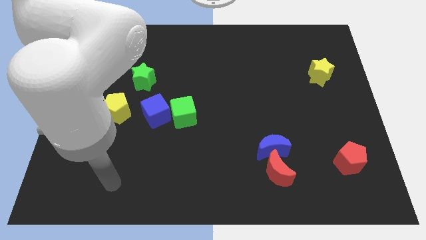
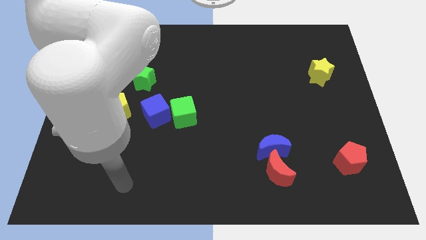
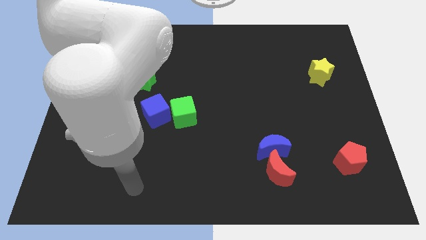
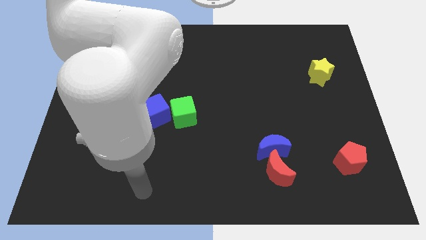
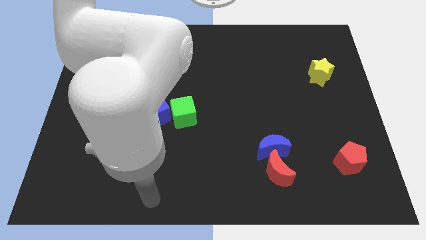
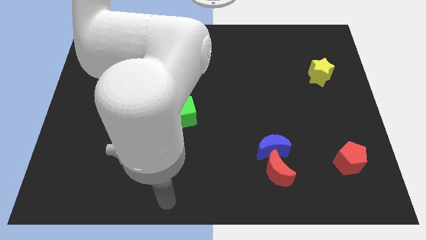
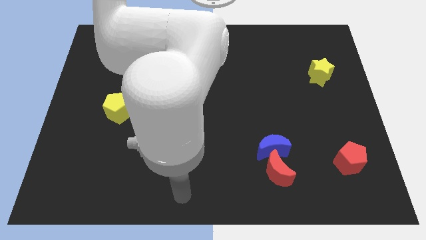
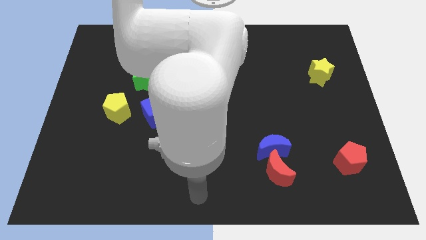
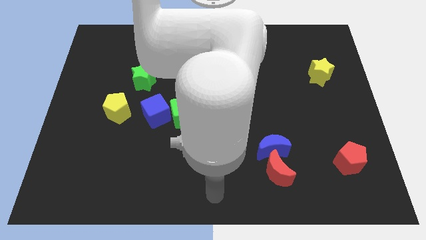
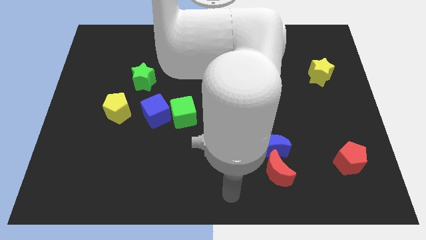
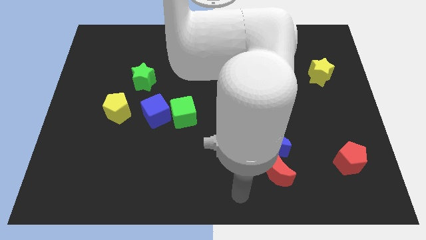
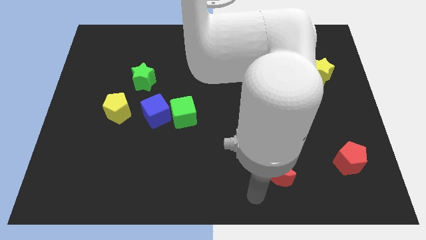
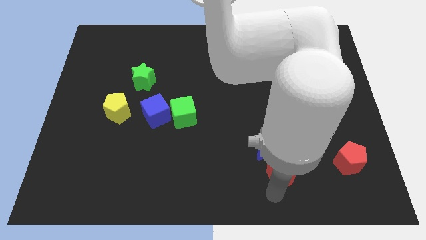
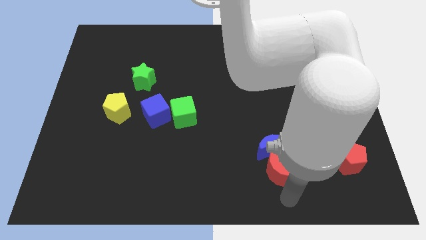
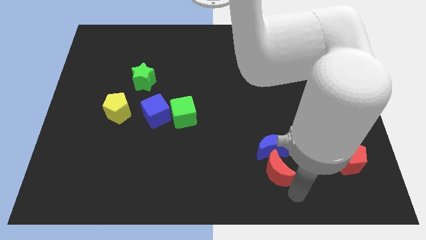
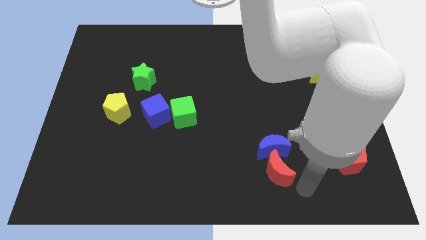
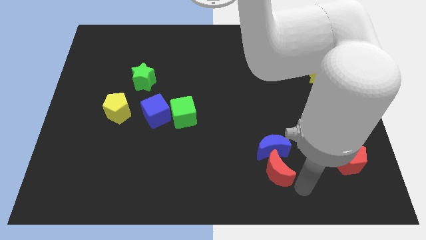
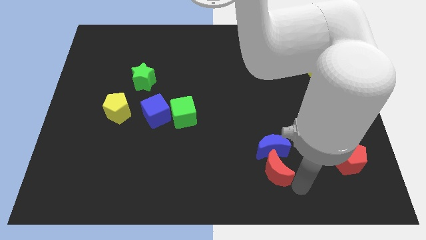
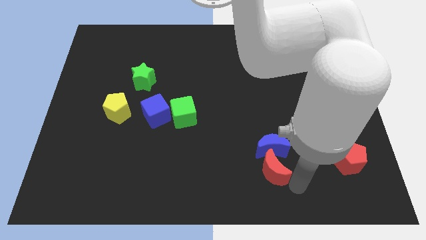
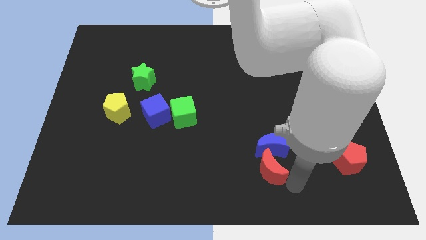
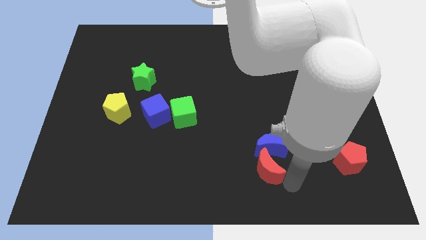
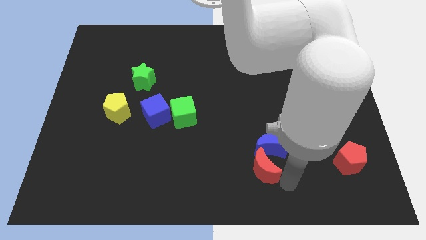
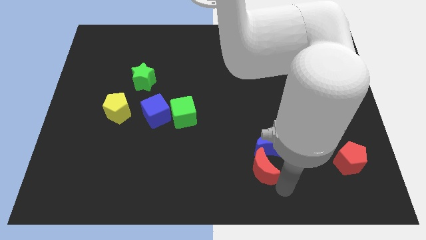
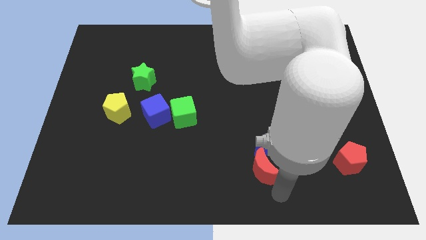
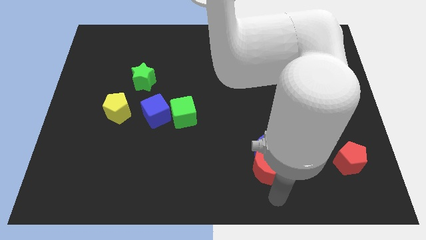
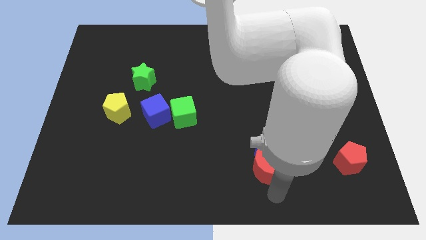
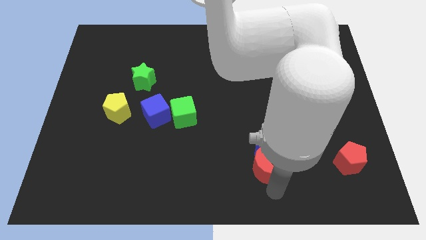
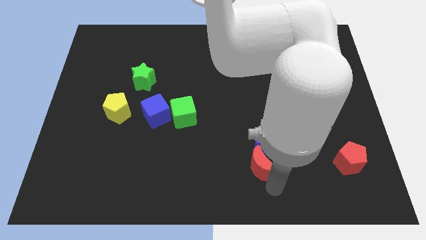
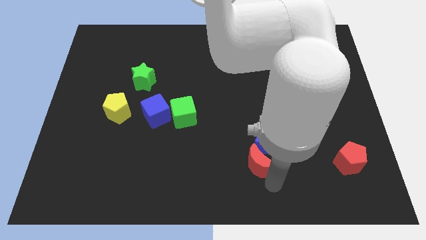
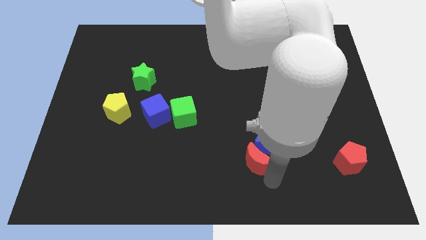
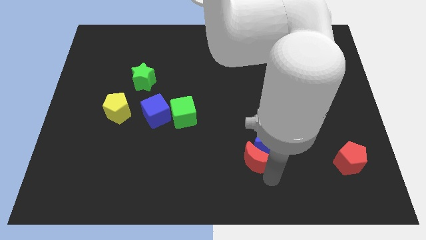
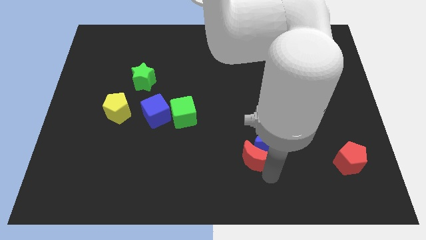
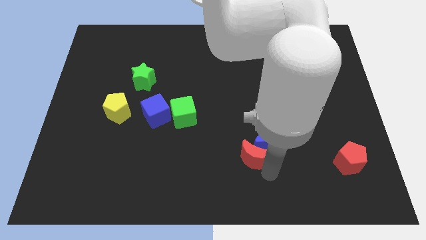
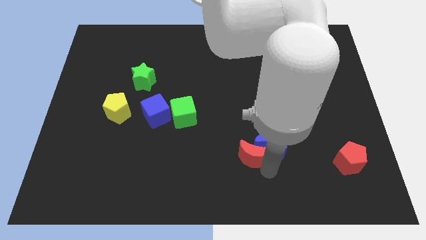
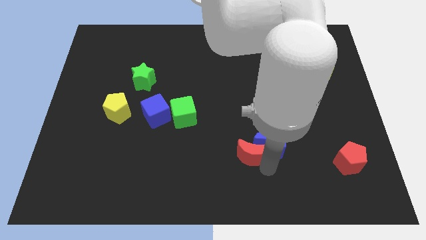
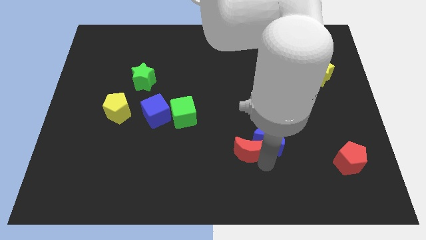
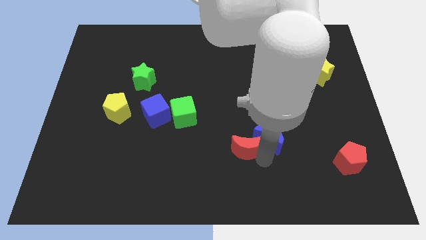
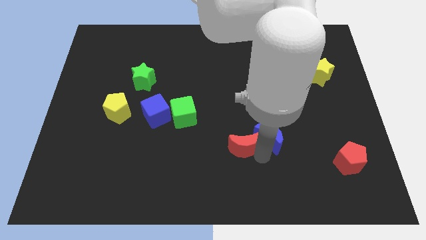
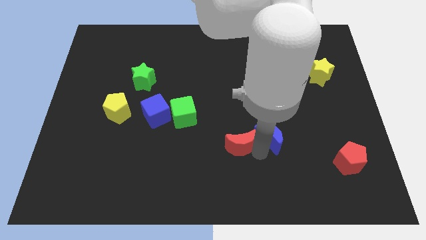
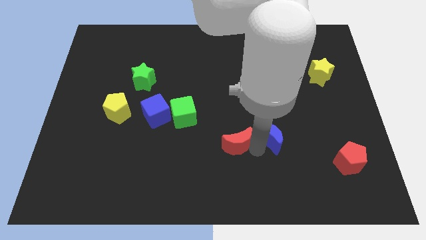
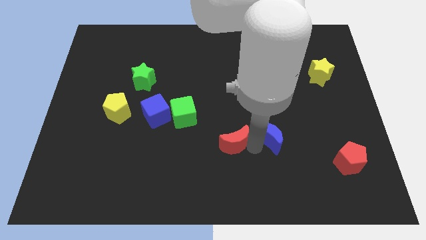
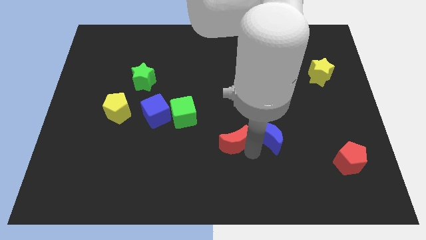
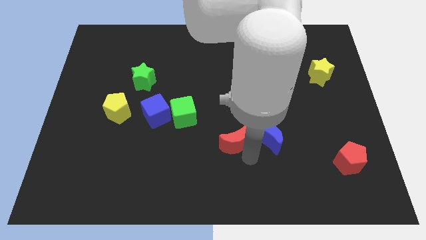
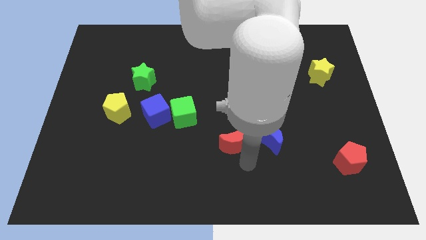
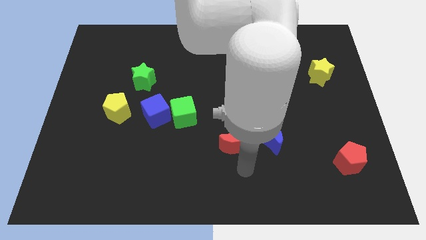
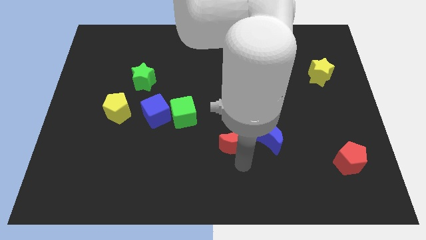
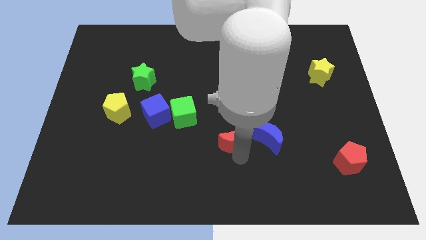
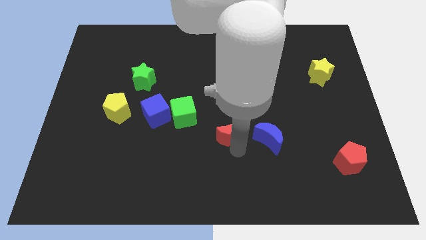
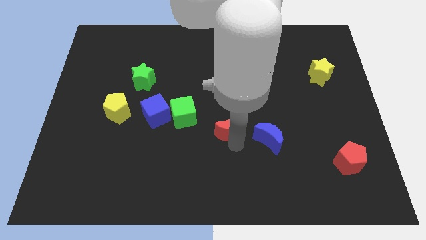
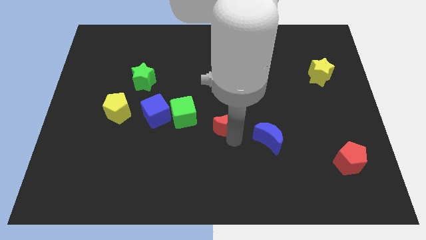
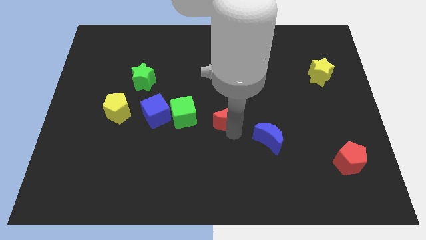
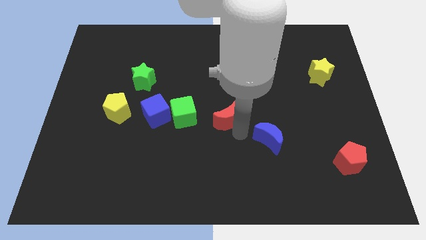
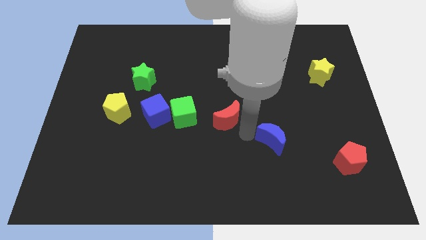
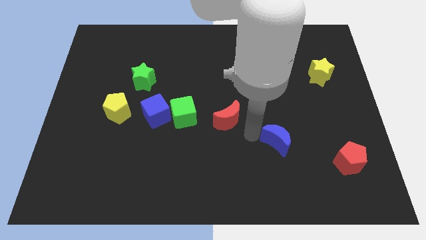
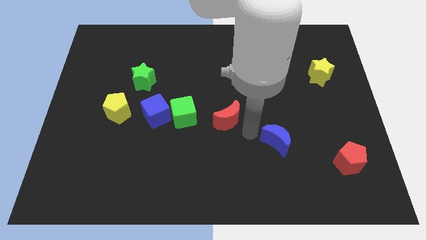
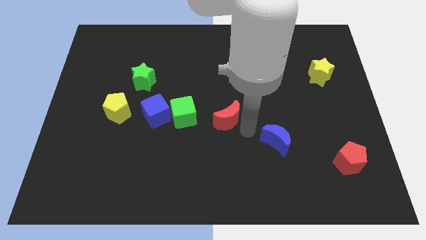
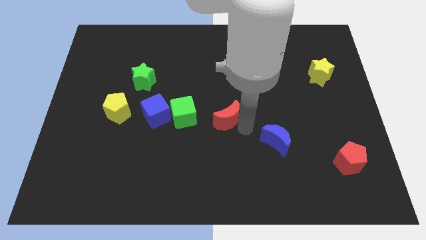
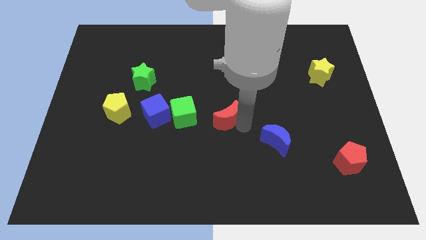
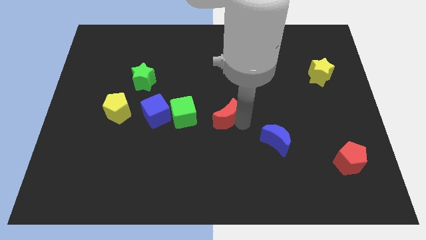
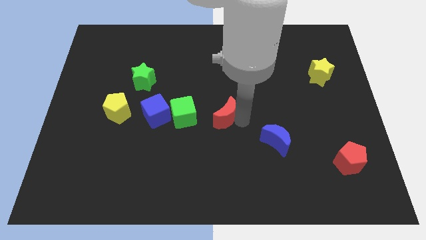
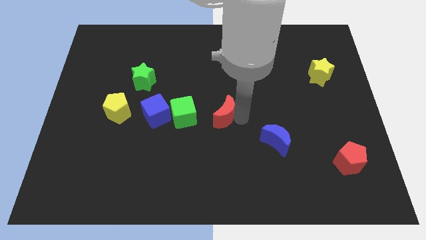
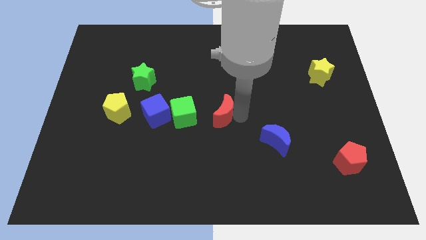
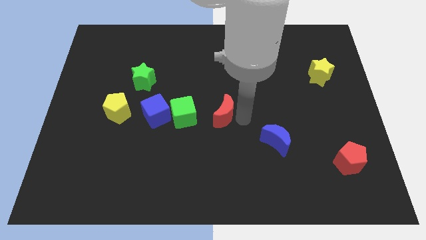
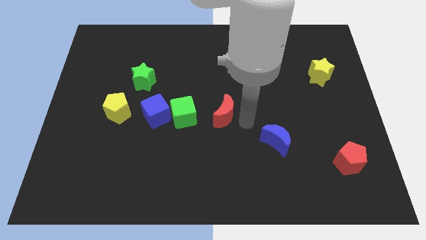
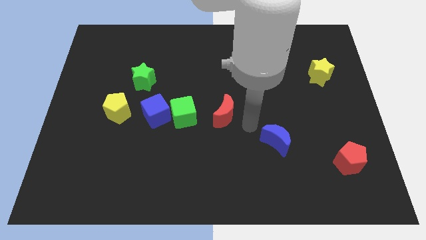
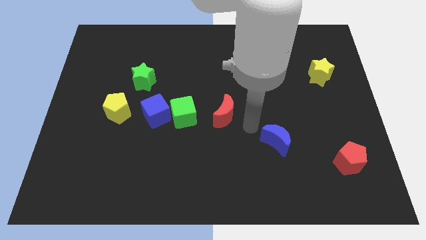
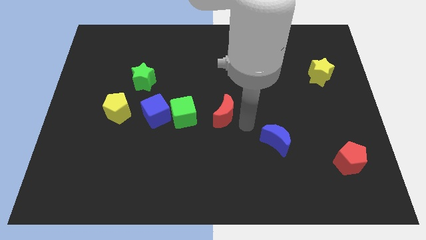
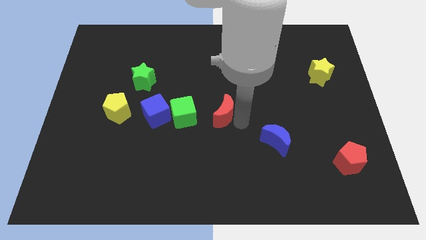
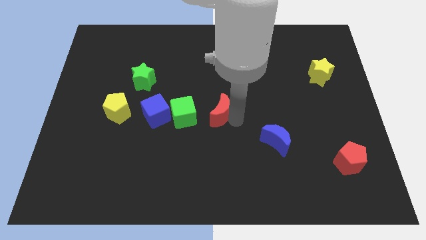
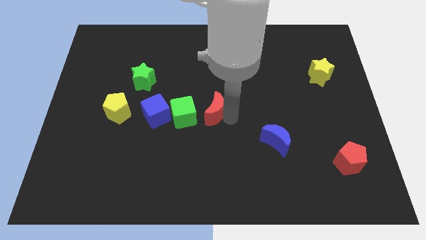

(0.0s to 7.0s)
slide the red moon diagonally upwards and left

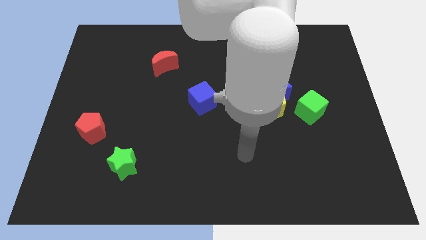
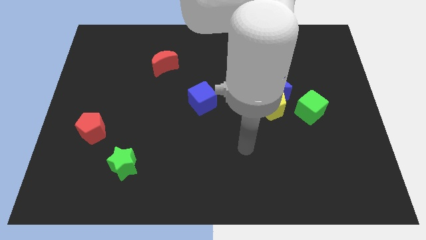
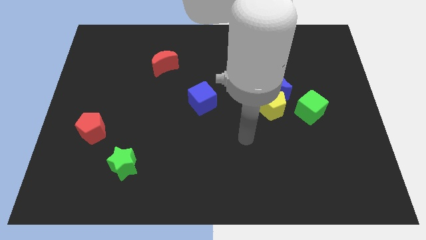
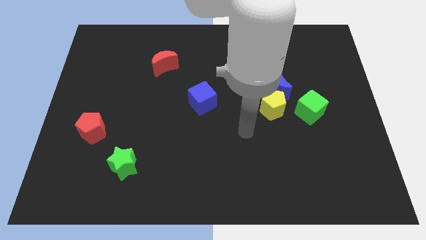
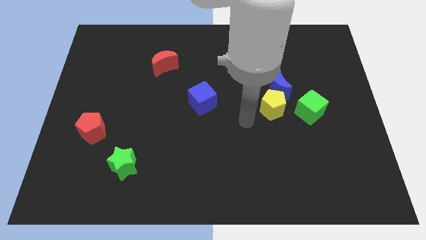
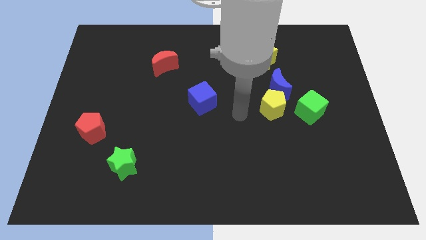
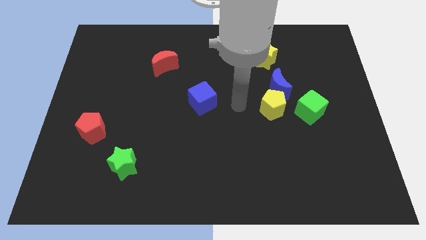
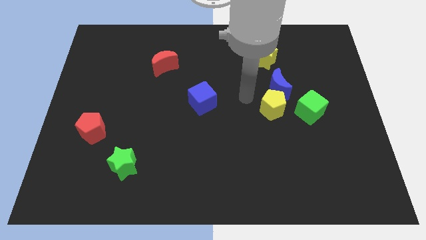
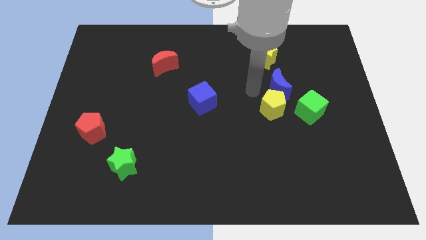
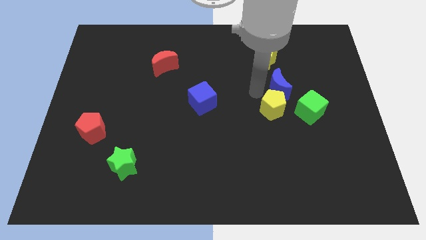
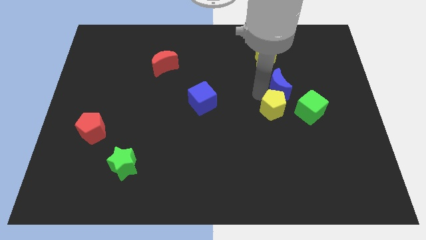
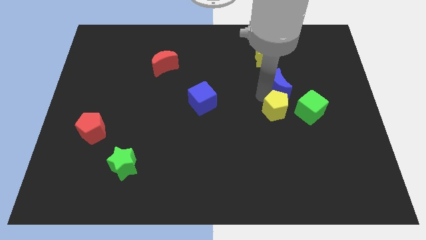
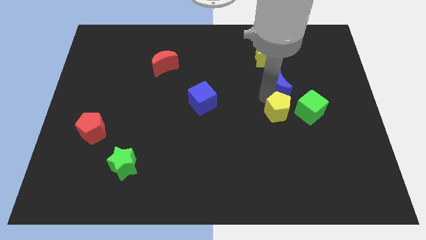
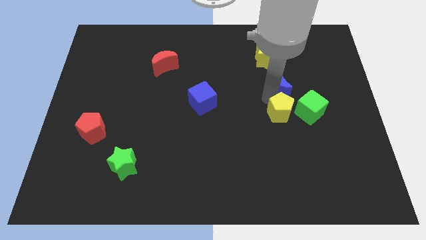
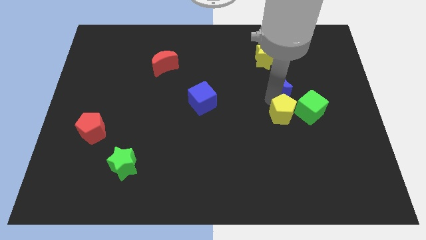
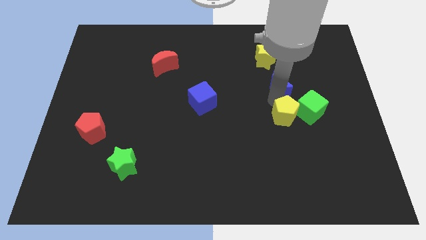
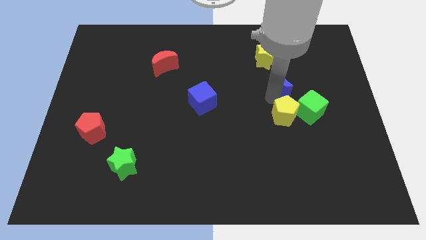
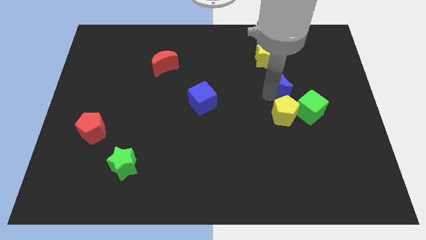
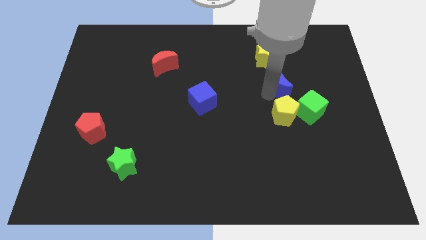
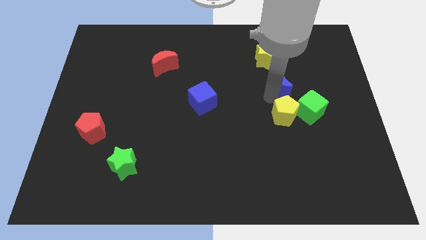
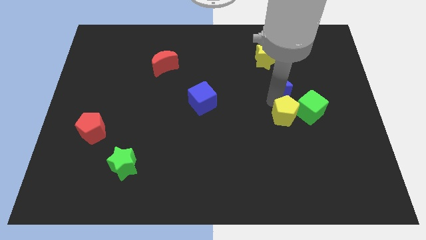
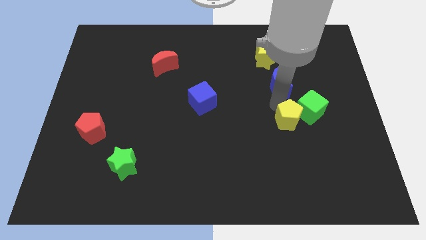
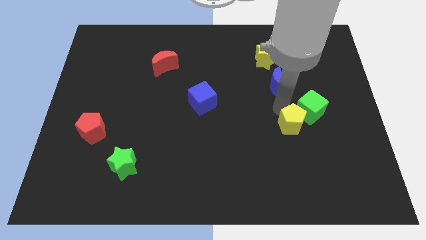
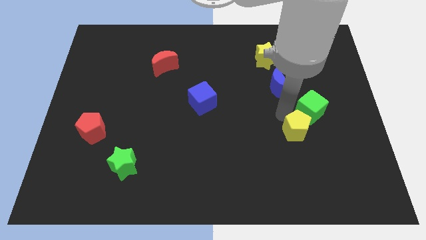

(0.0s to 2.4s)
slide the yellow pentagon somewhat down and then right
